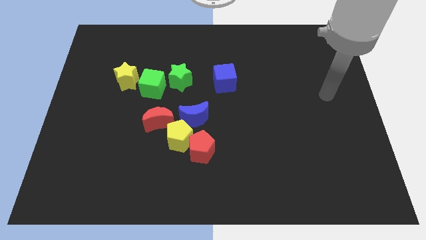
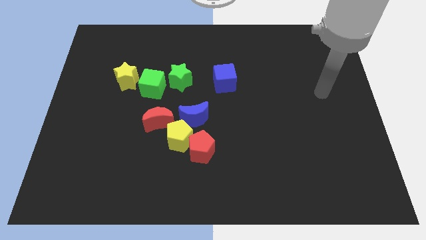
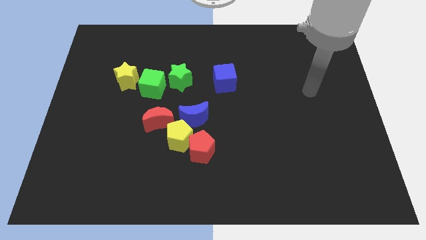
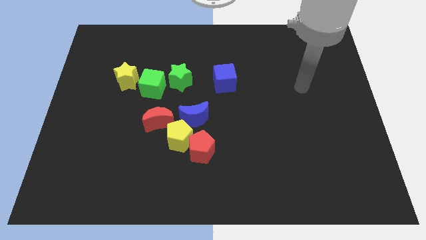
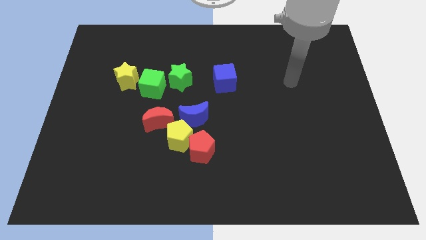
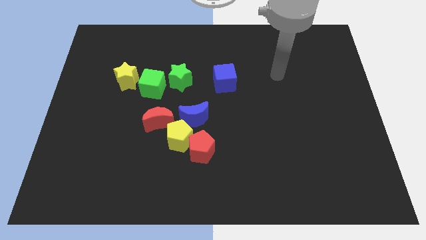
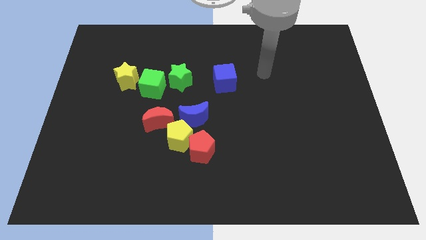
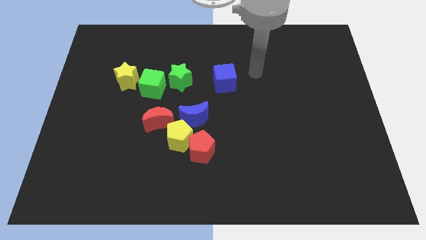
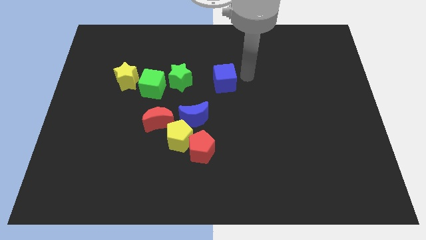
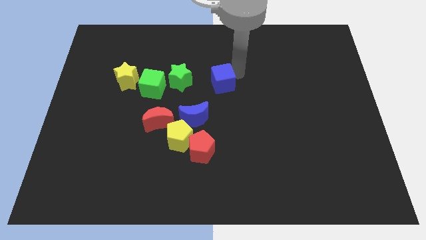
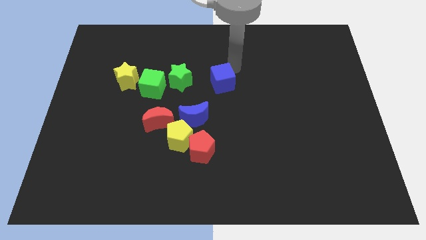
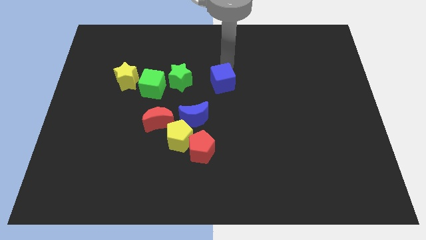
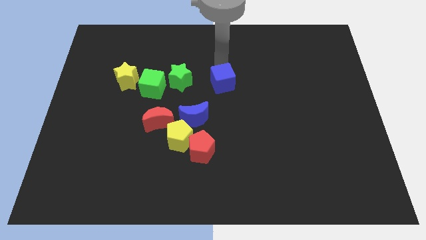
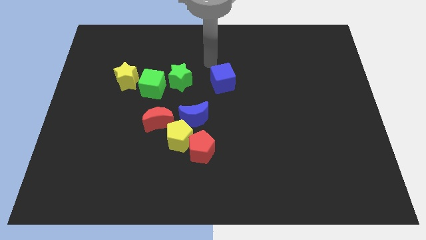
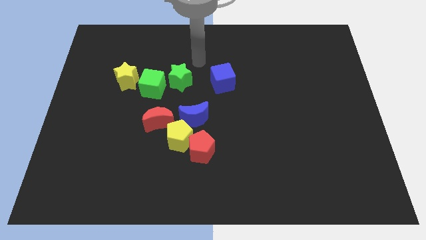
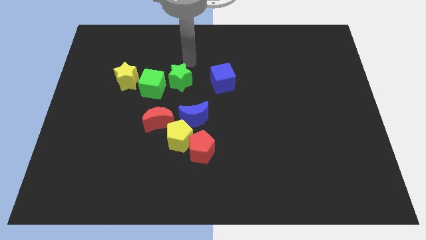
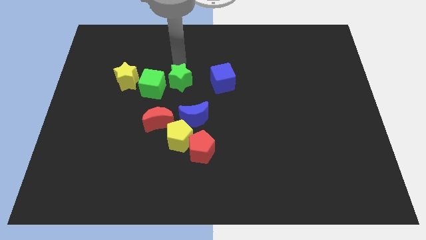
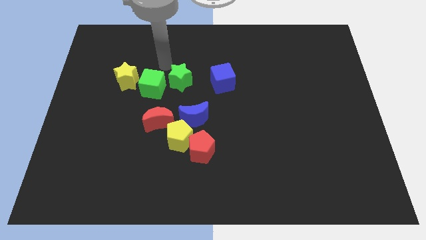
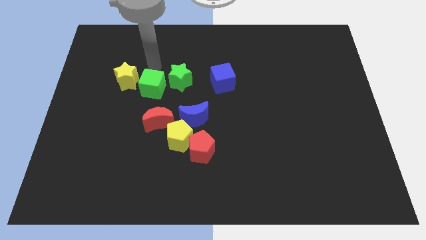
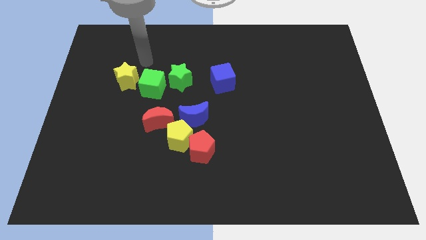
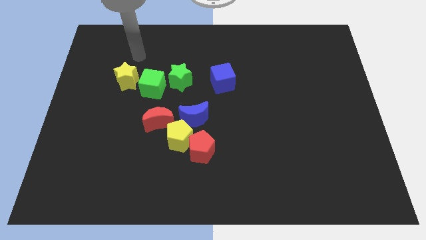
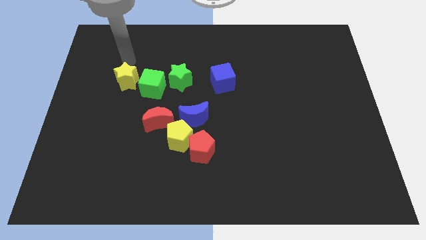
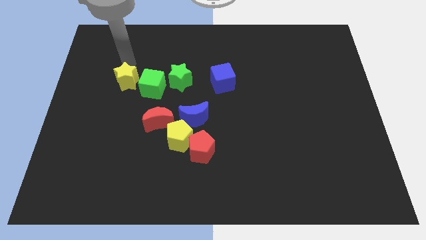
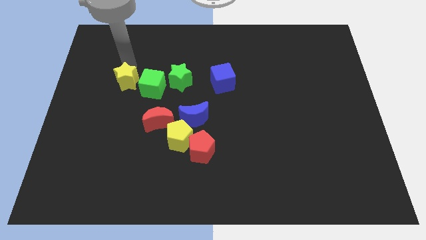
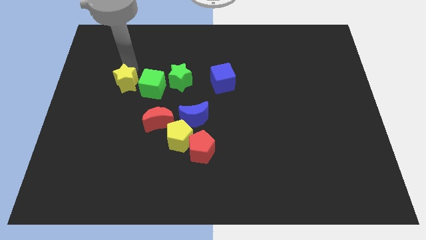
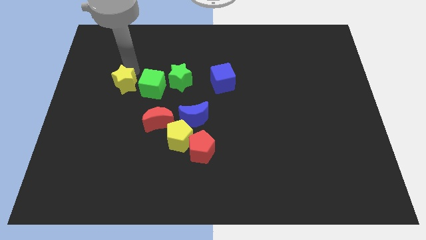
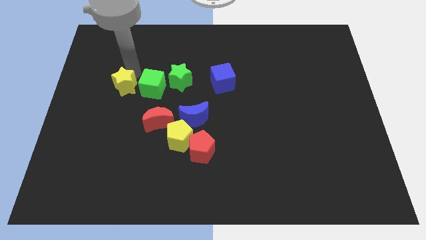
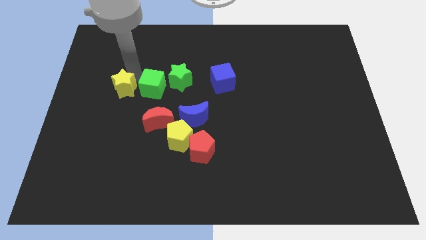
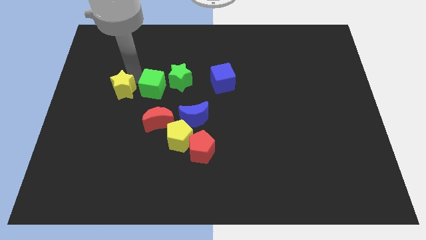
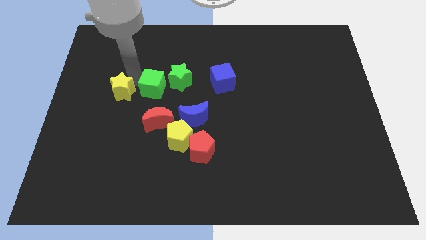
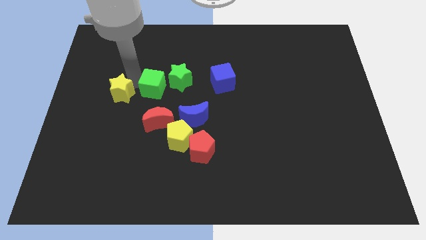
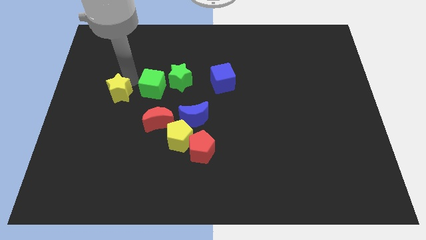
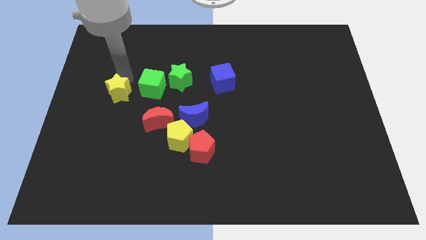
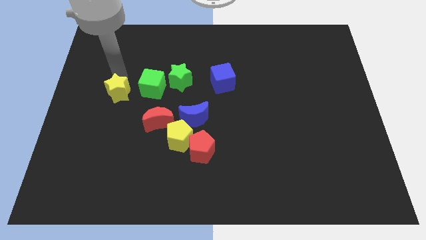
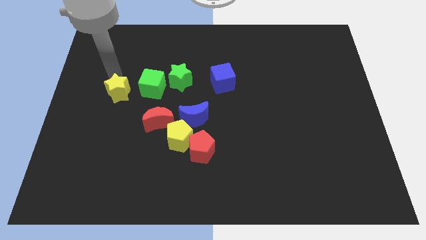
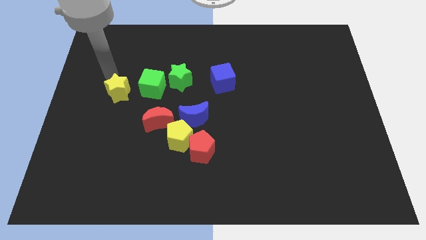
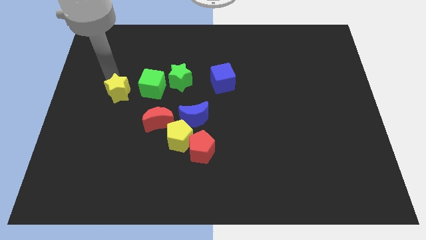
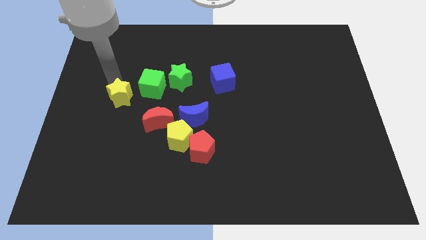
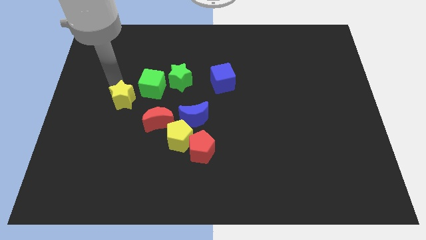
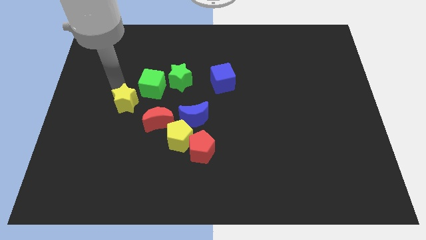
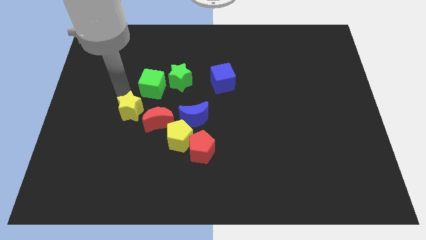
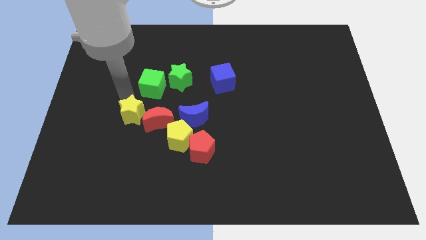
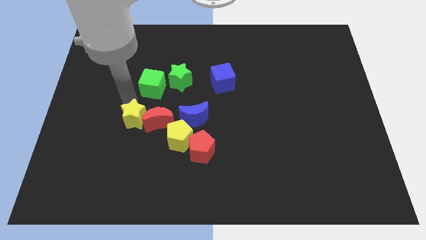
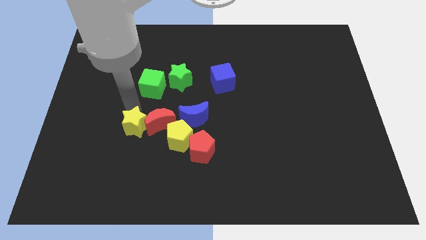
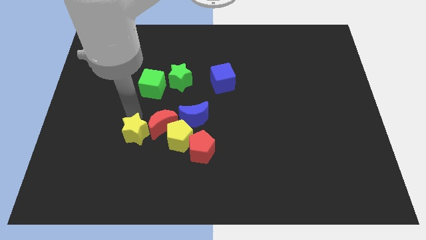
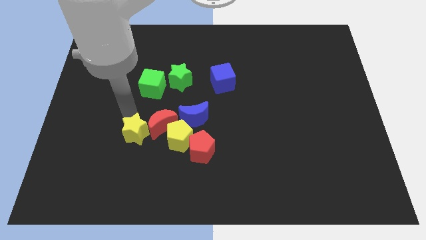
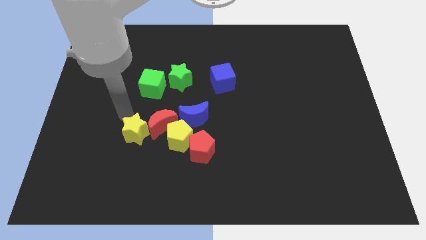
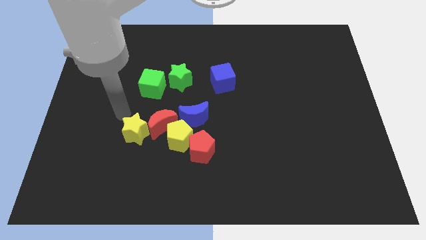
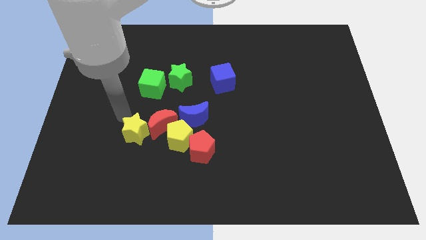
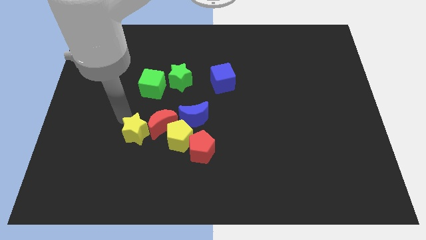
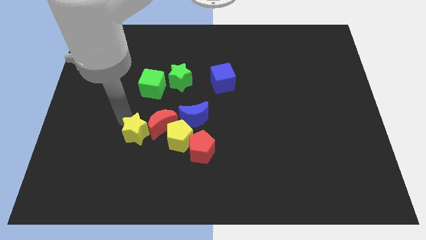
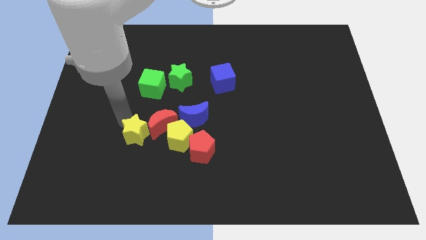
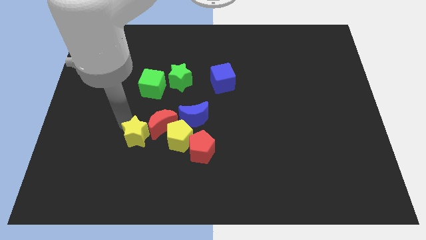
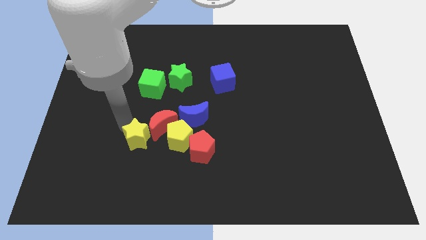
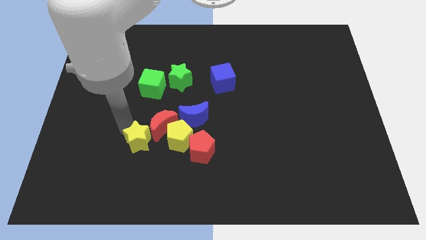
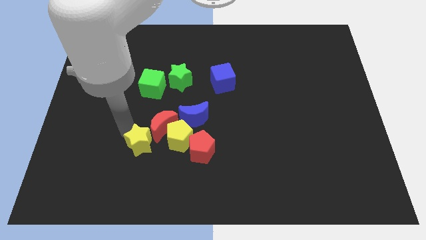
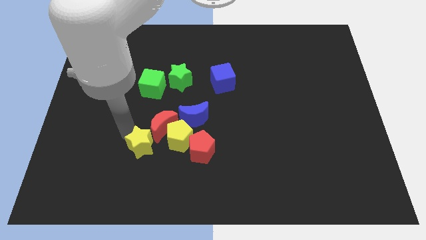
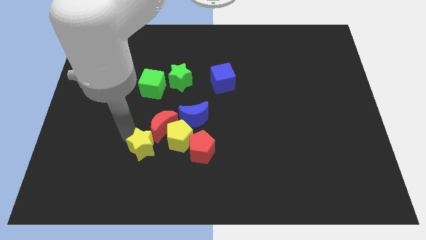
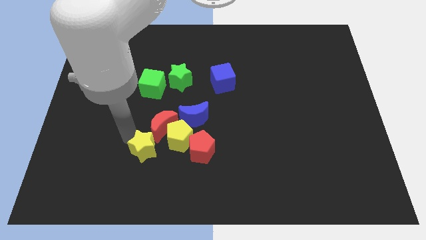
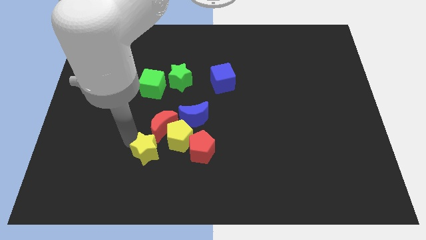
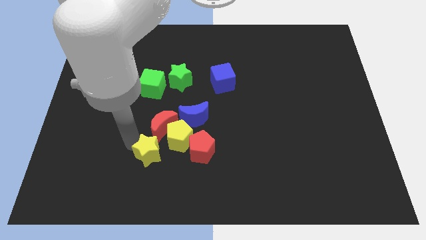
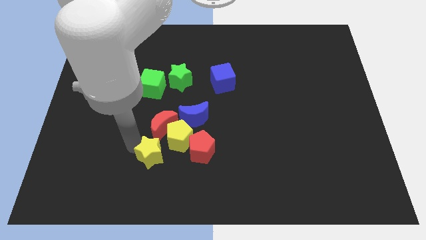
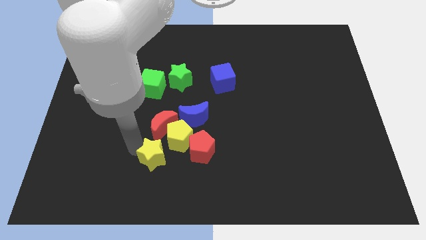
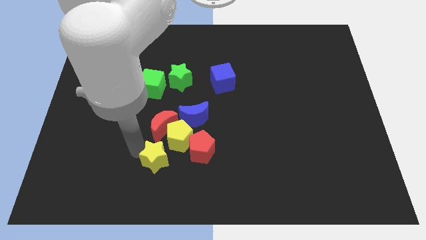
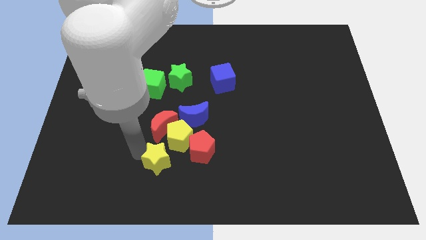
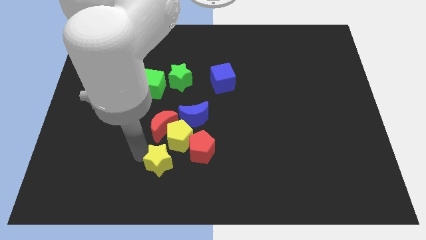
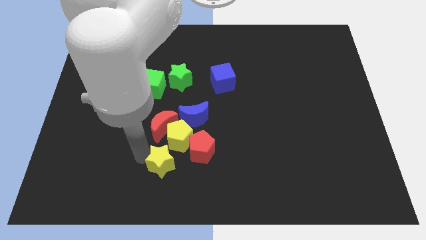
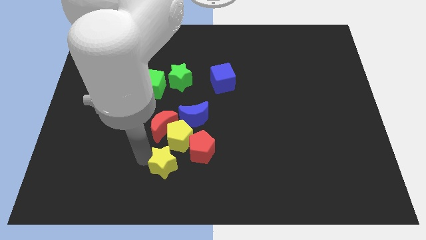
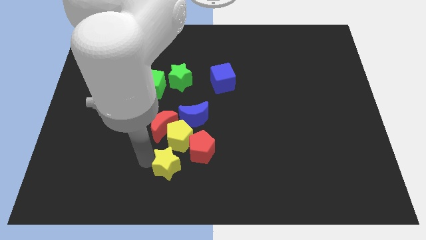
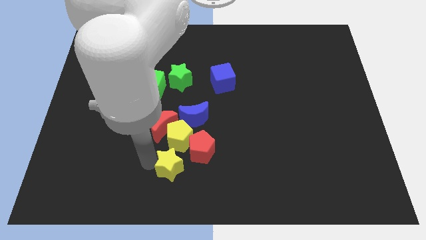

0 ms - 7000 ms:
slide the yellow star to the bottom side of the blue moon
